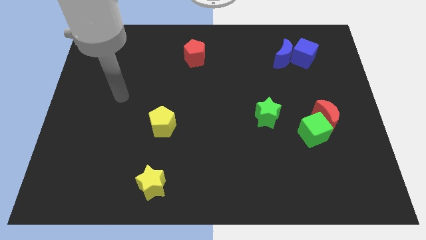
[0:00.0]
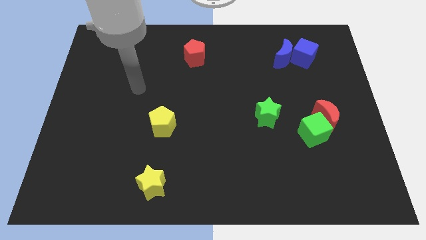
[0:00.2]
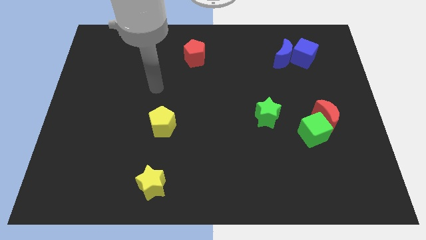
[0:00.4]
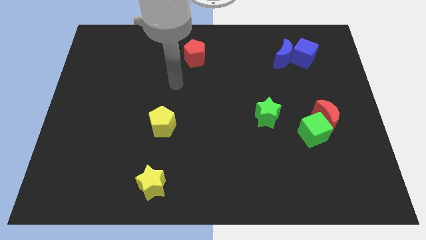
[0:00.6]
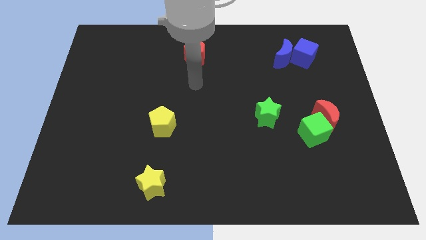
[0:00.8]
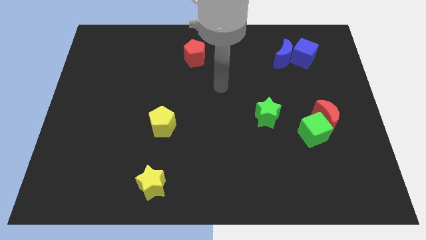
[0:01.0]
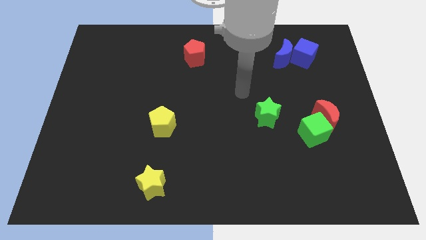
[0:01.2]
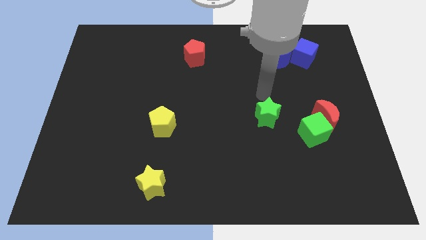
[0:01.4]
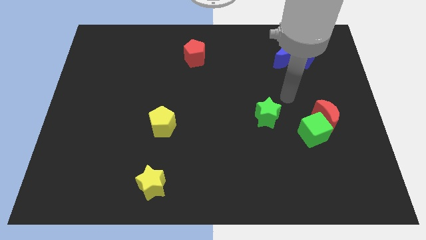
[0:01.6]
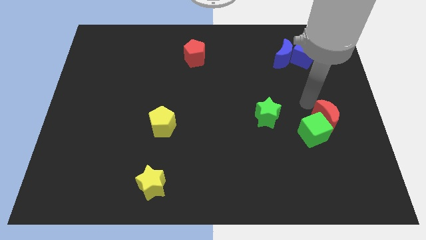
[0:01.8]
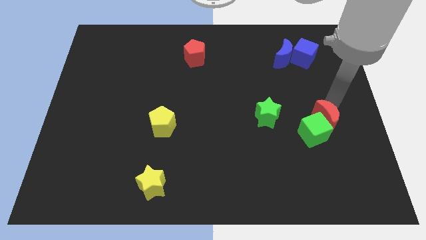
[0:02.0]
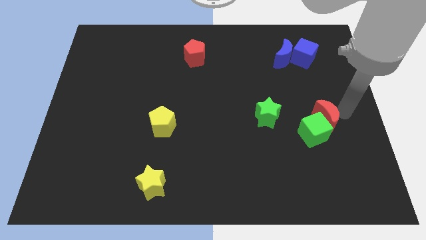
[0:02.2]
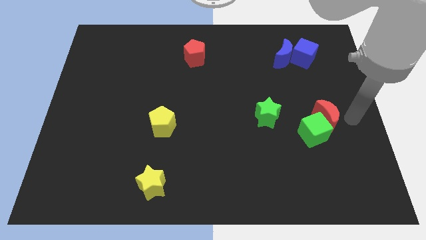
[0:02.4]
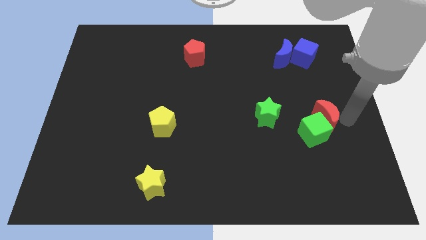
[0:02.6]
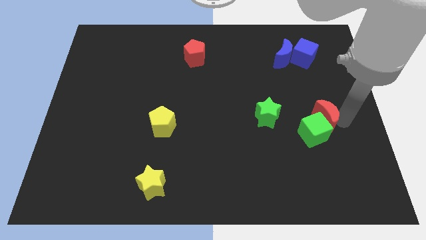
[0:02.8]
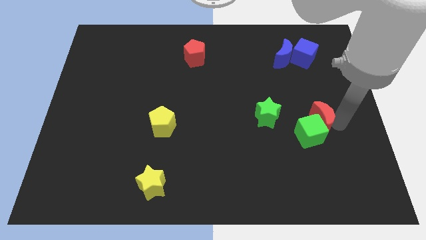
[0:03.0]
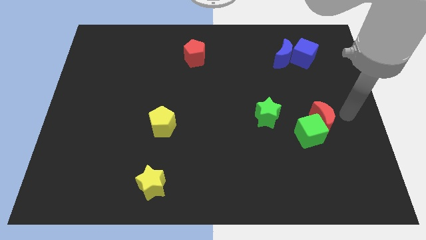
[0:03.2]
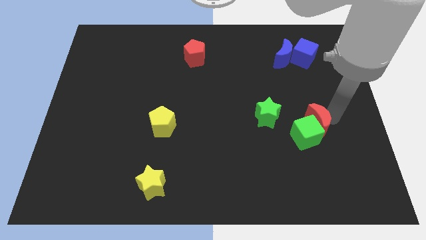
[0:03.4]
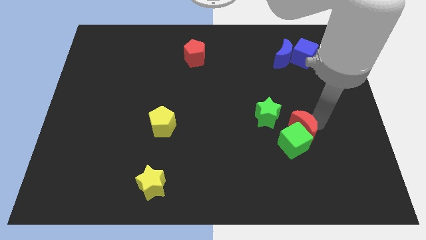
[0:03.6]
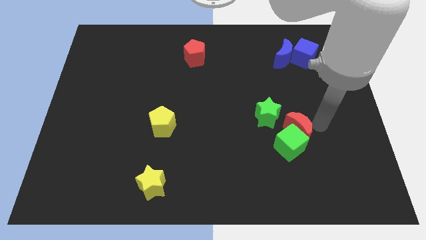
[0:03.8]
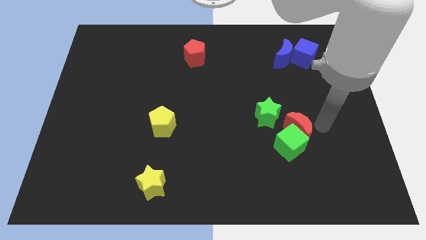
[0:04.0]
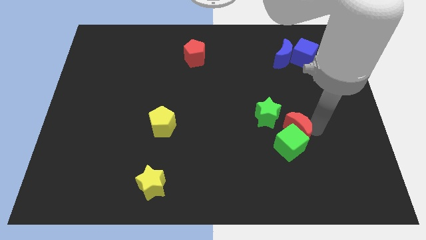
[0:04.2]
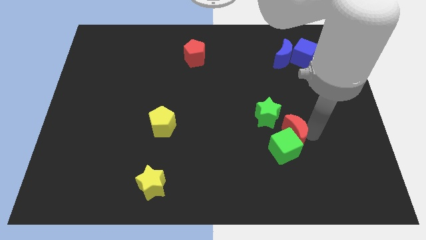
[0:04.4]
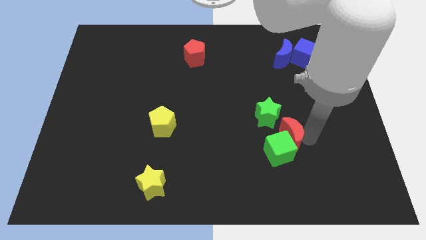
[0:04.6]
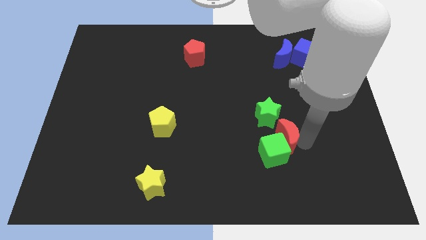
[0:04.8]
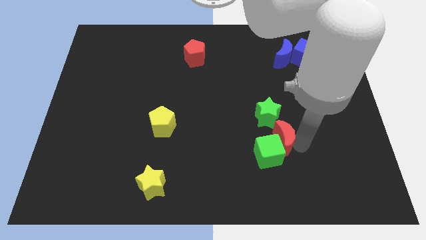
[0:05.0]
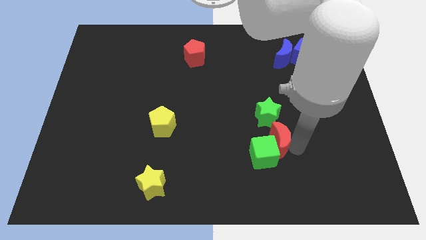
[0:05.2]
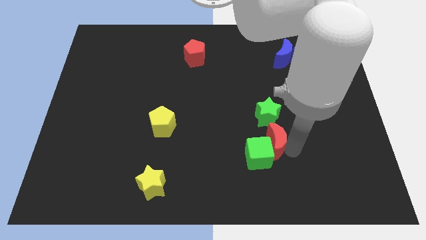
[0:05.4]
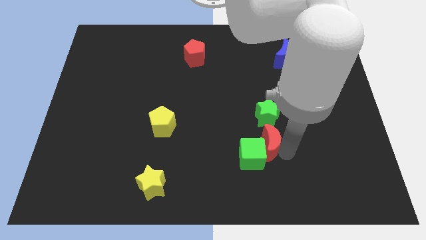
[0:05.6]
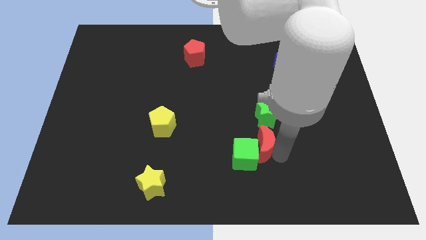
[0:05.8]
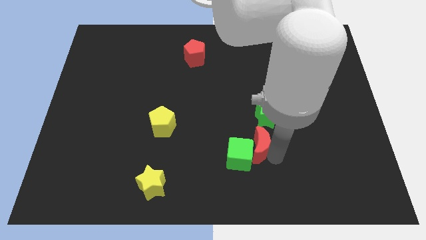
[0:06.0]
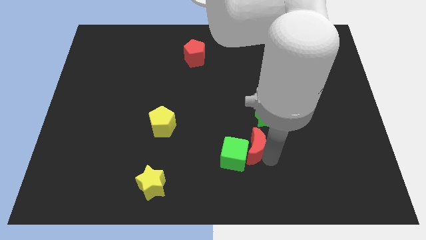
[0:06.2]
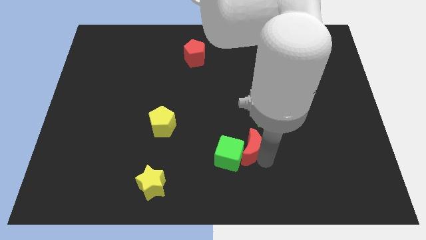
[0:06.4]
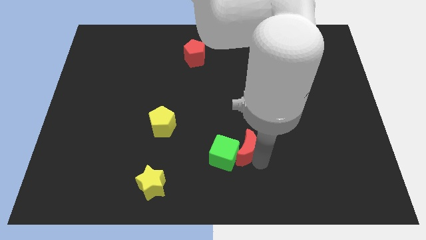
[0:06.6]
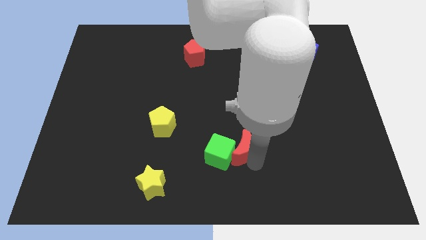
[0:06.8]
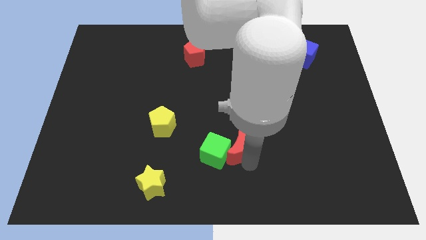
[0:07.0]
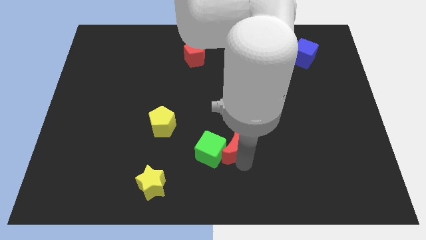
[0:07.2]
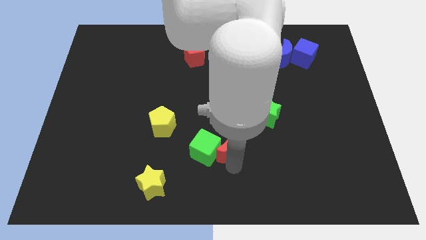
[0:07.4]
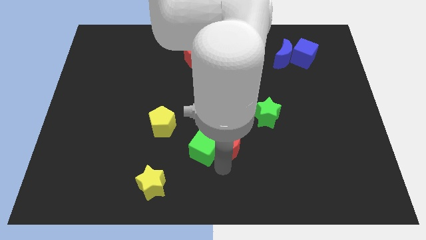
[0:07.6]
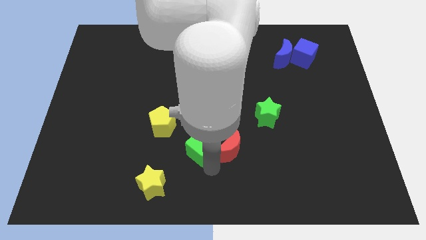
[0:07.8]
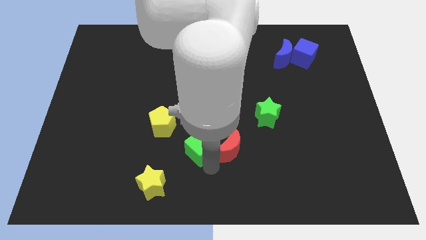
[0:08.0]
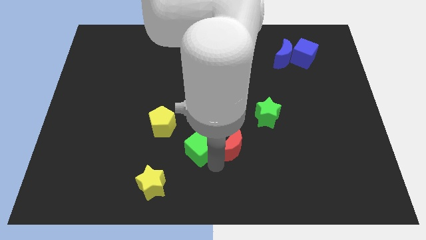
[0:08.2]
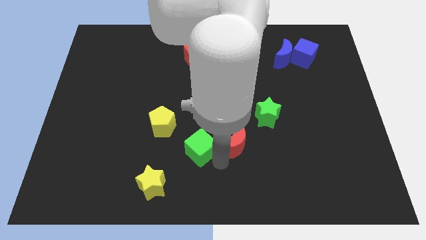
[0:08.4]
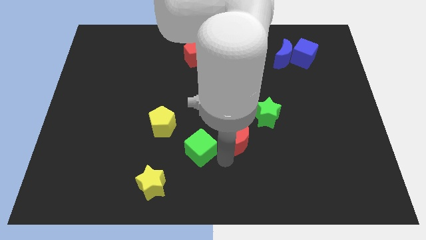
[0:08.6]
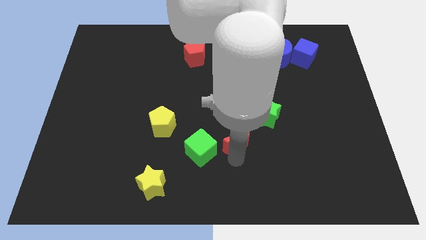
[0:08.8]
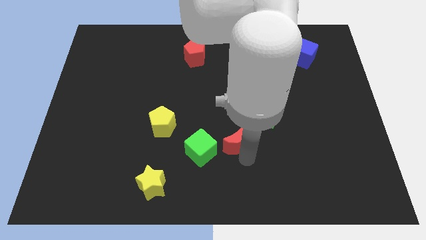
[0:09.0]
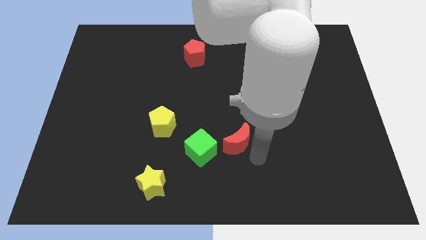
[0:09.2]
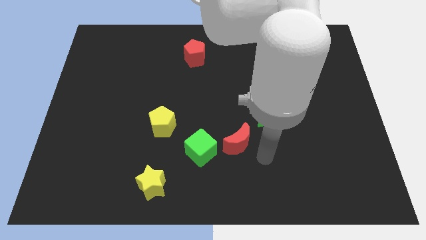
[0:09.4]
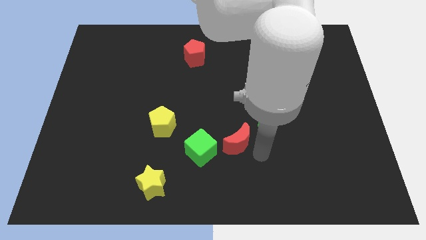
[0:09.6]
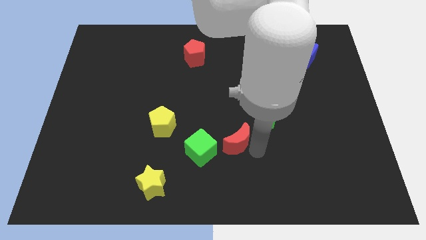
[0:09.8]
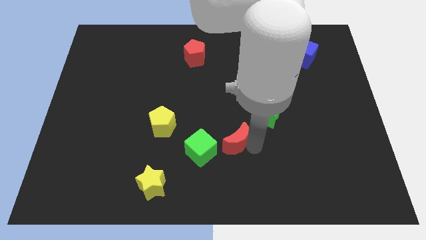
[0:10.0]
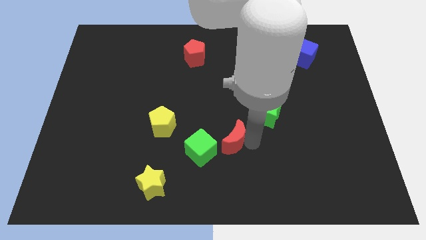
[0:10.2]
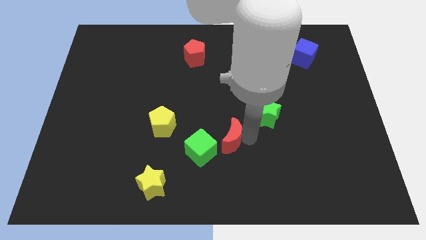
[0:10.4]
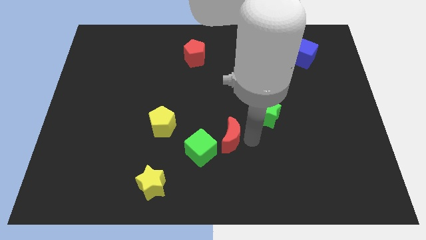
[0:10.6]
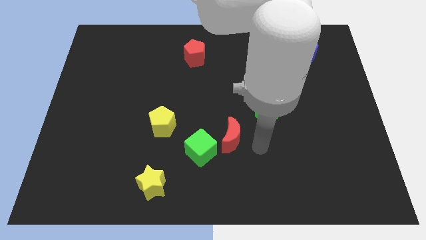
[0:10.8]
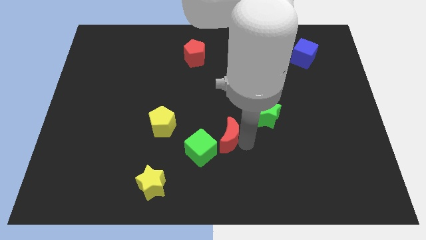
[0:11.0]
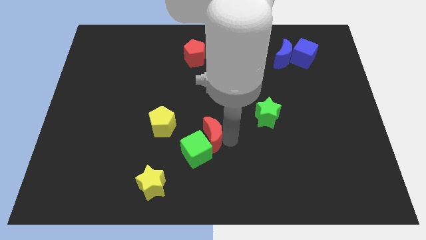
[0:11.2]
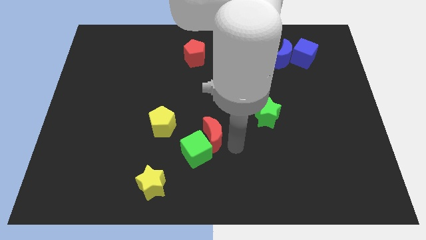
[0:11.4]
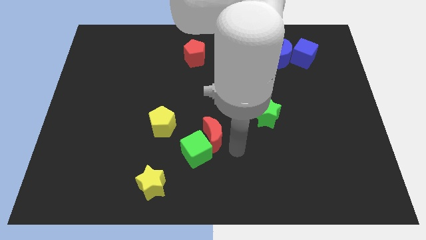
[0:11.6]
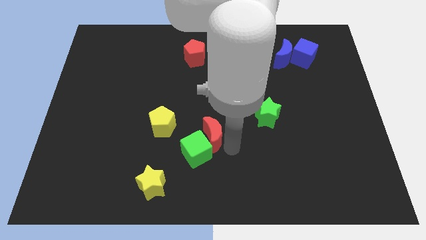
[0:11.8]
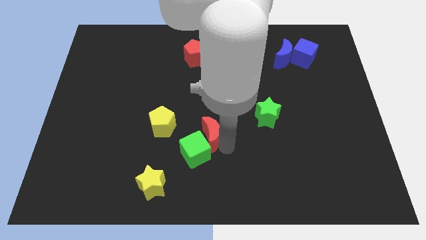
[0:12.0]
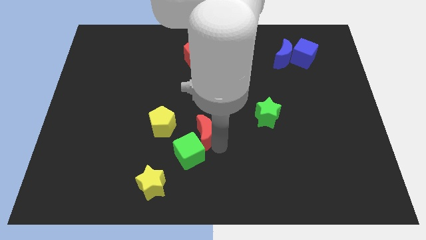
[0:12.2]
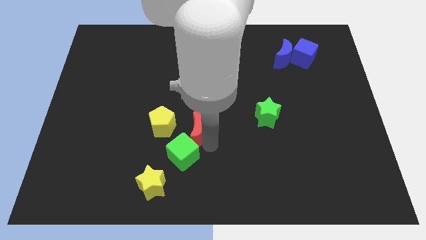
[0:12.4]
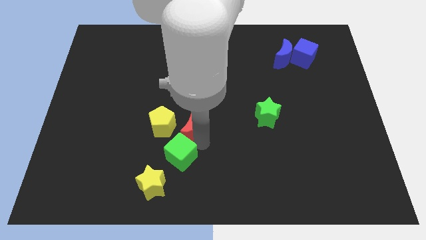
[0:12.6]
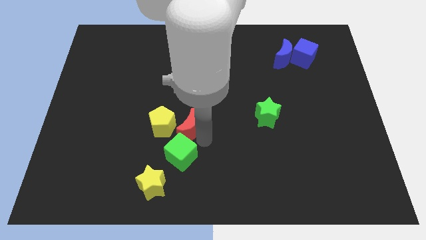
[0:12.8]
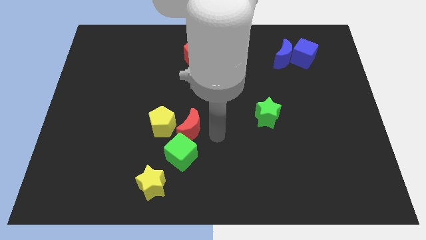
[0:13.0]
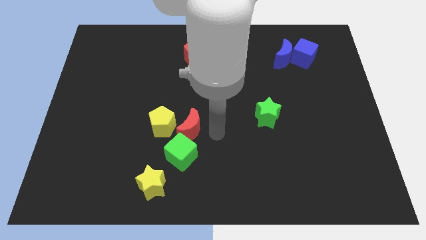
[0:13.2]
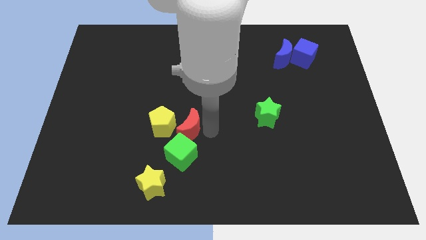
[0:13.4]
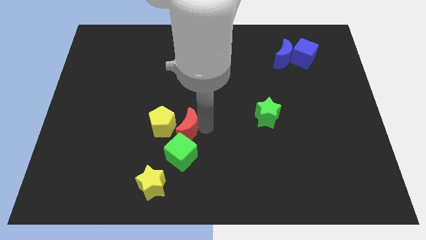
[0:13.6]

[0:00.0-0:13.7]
push the red moon close to the yellow pentagon

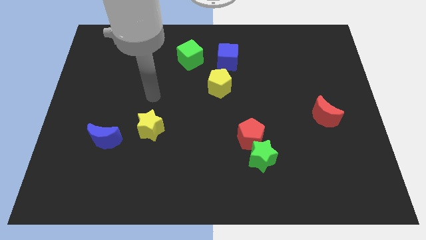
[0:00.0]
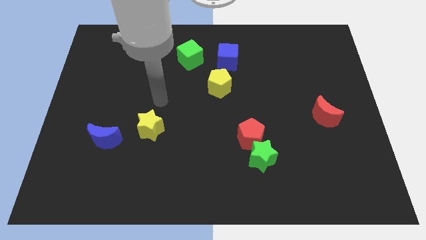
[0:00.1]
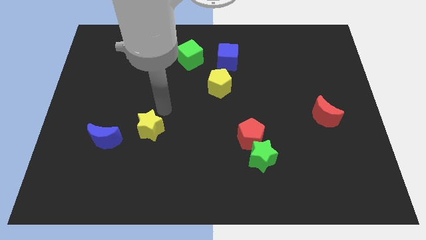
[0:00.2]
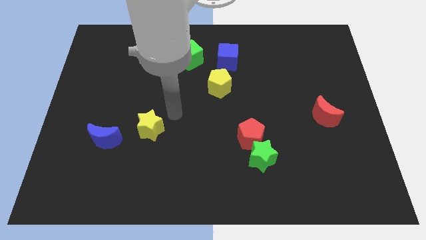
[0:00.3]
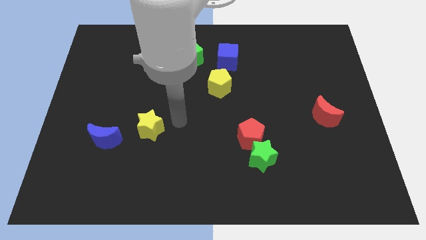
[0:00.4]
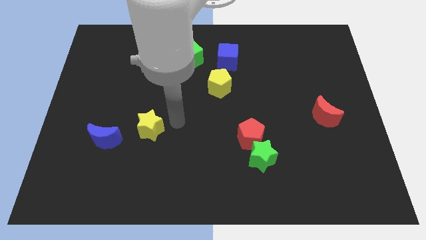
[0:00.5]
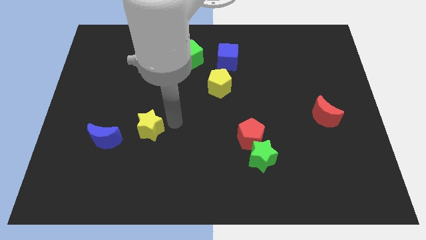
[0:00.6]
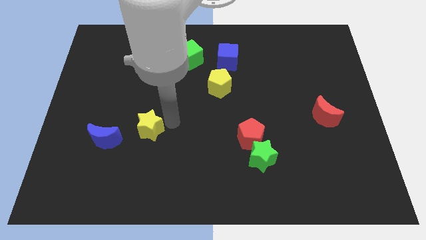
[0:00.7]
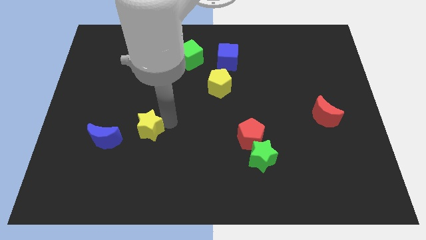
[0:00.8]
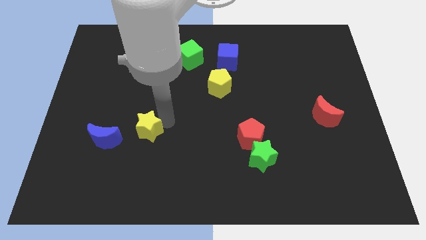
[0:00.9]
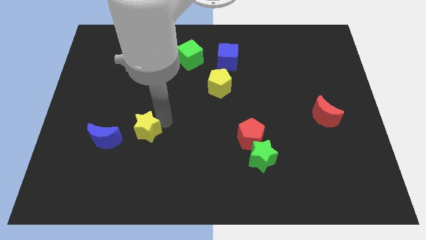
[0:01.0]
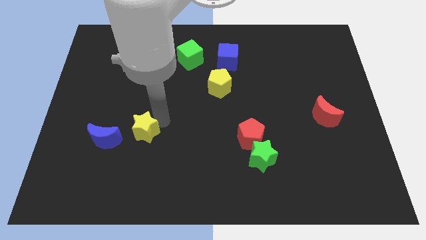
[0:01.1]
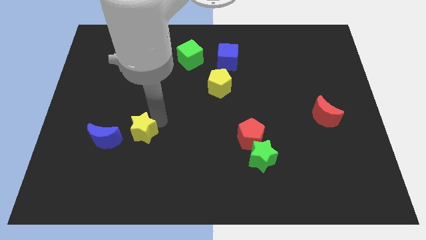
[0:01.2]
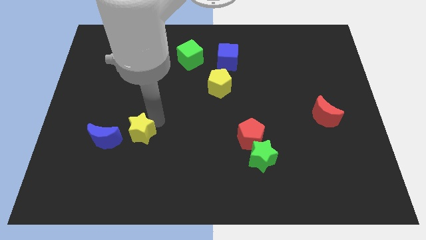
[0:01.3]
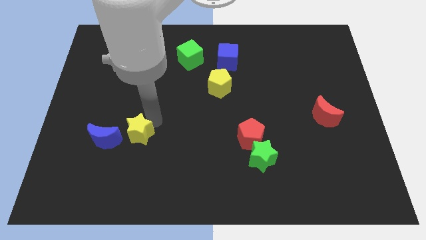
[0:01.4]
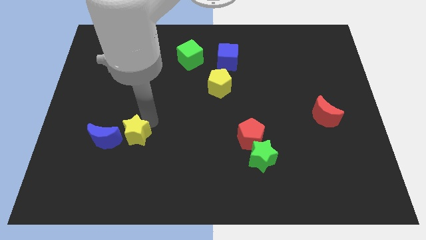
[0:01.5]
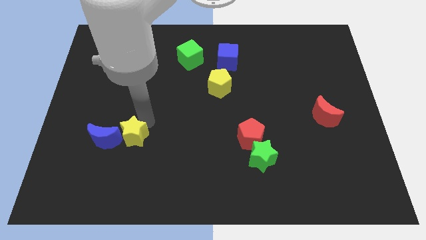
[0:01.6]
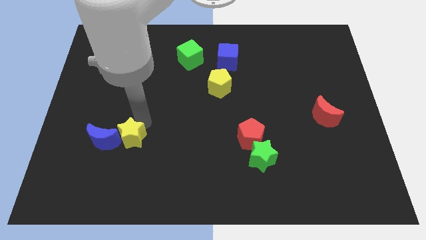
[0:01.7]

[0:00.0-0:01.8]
push the yellow star towards the blue moon
